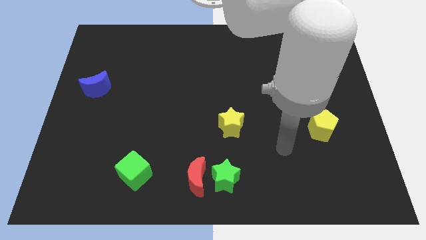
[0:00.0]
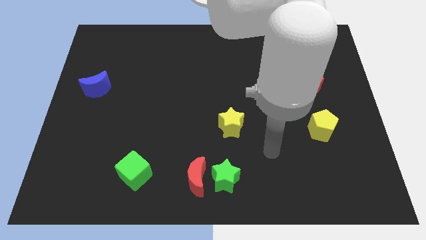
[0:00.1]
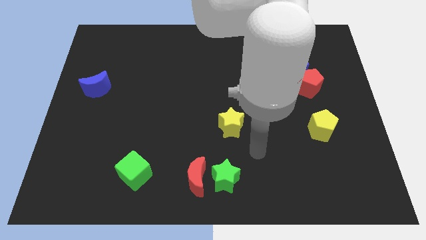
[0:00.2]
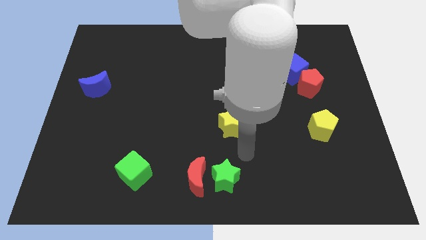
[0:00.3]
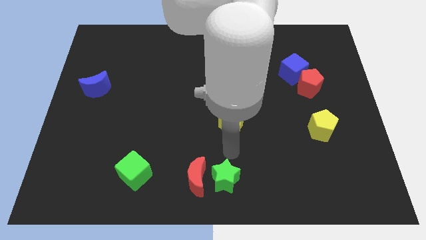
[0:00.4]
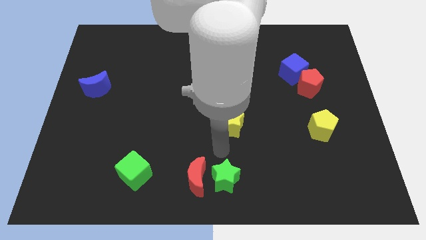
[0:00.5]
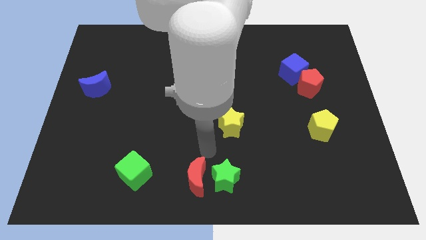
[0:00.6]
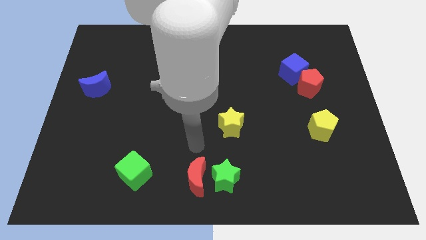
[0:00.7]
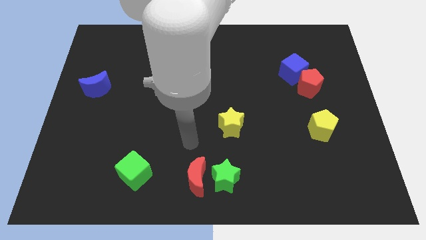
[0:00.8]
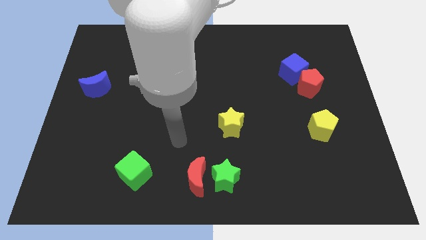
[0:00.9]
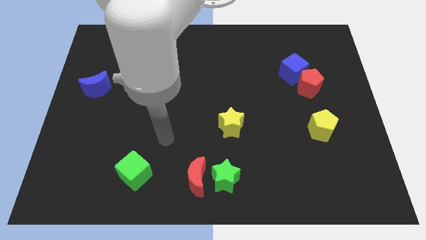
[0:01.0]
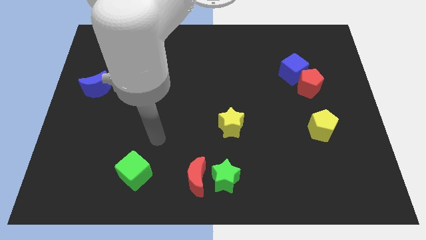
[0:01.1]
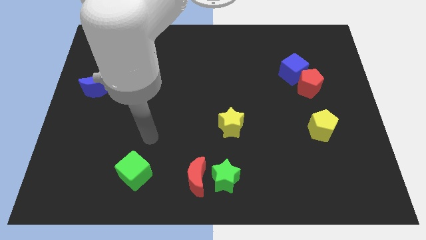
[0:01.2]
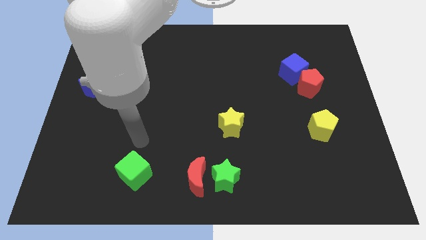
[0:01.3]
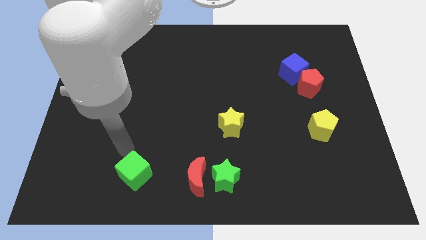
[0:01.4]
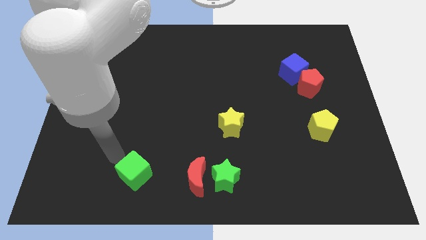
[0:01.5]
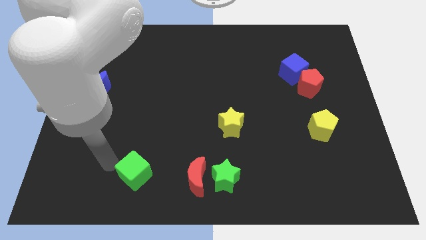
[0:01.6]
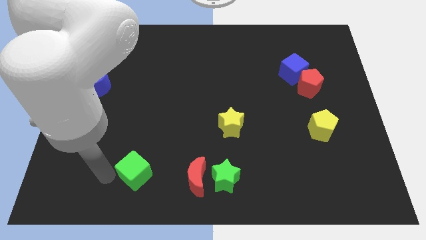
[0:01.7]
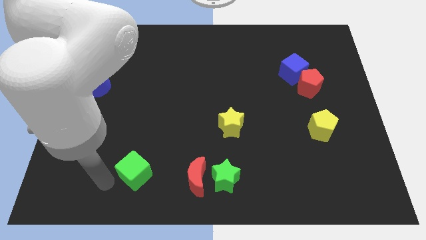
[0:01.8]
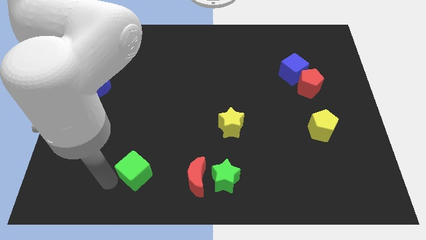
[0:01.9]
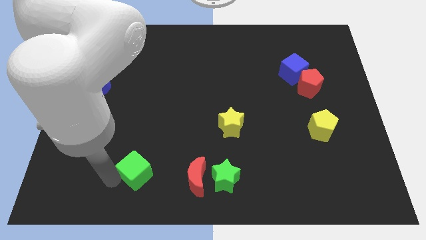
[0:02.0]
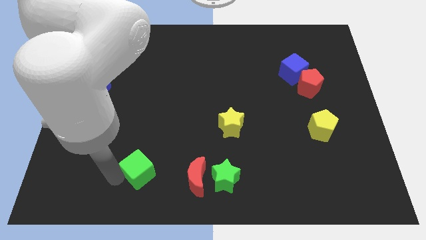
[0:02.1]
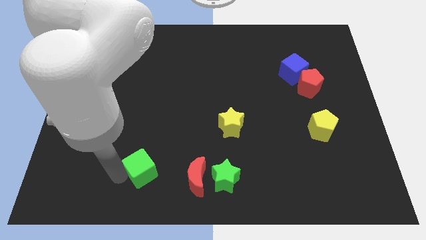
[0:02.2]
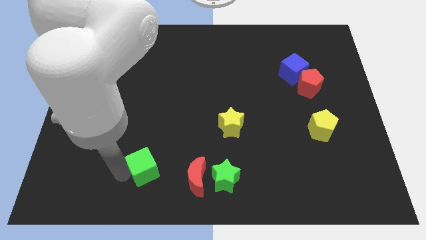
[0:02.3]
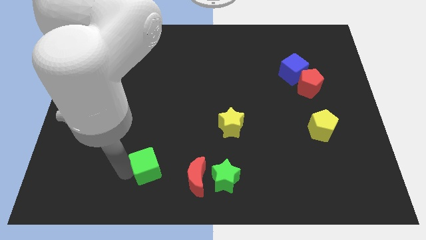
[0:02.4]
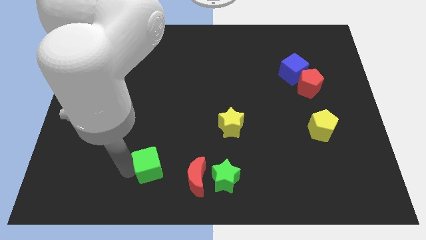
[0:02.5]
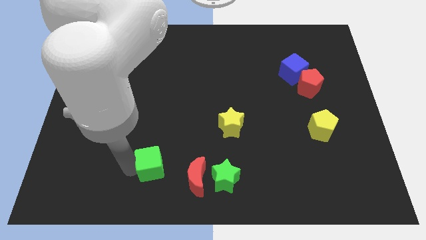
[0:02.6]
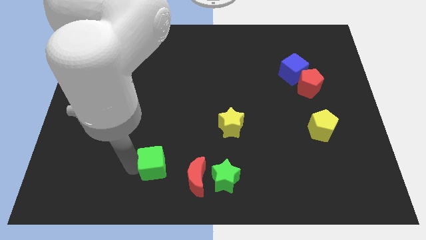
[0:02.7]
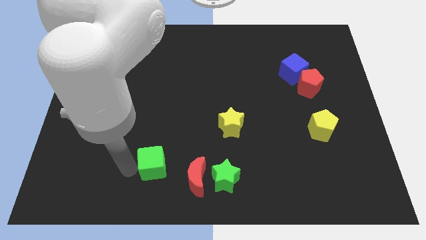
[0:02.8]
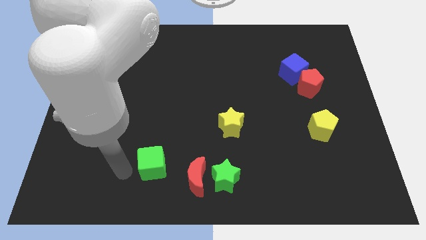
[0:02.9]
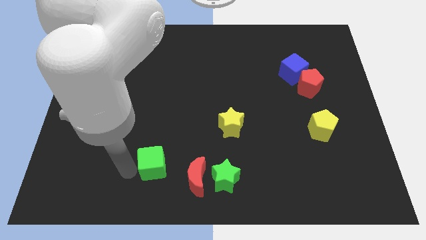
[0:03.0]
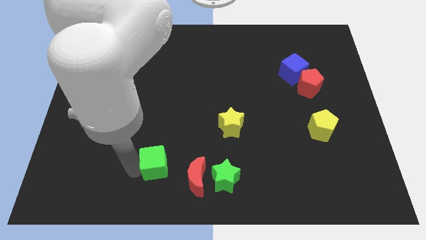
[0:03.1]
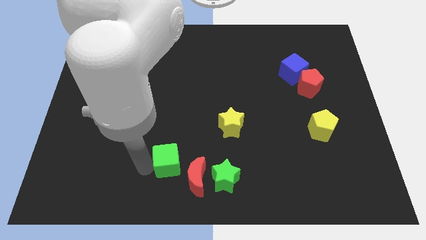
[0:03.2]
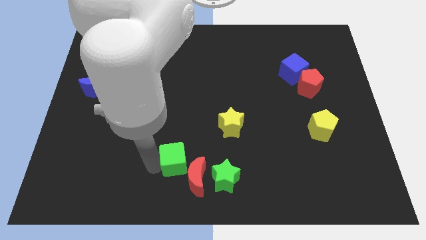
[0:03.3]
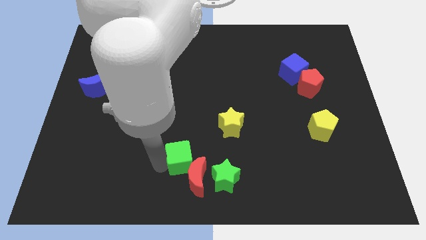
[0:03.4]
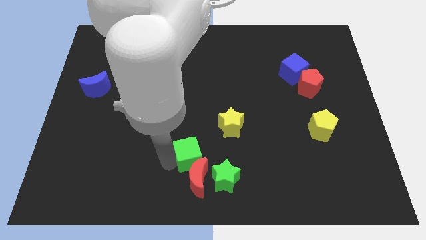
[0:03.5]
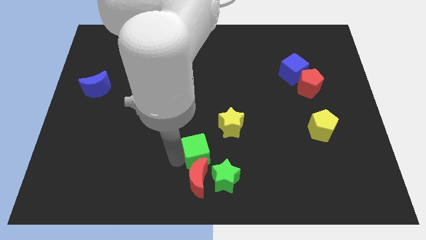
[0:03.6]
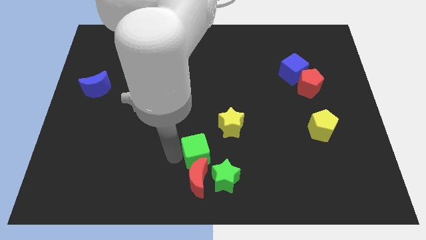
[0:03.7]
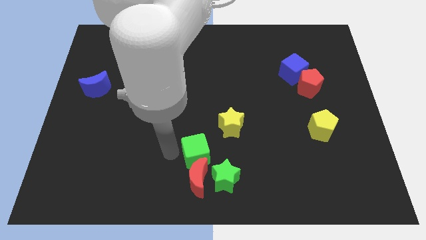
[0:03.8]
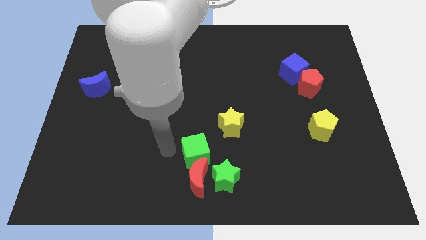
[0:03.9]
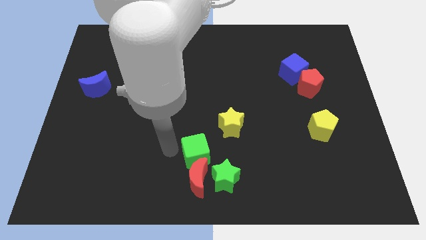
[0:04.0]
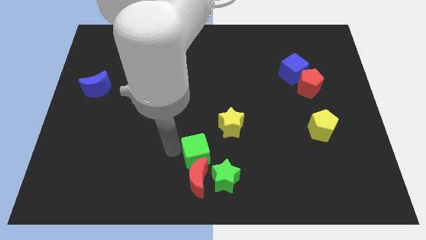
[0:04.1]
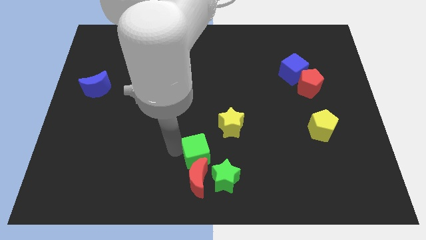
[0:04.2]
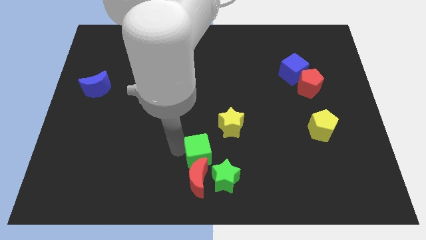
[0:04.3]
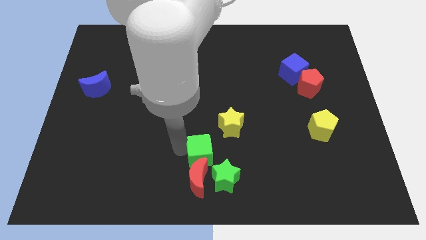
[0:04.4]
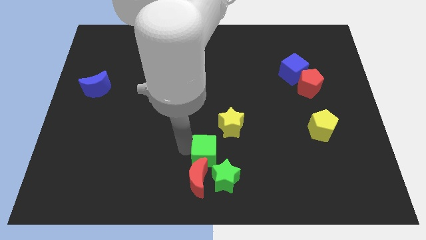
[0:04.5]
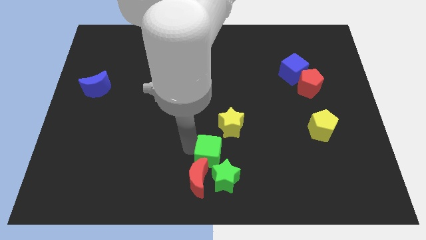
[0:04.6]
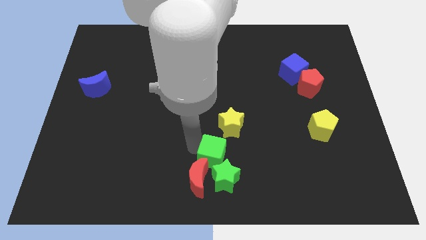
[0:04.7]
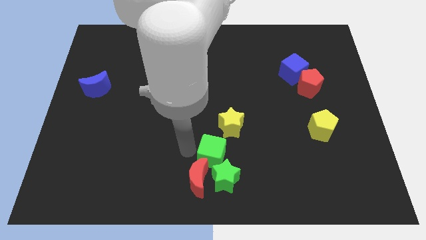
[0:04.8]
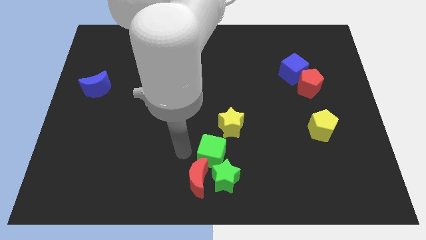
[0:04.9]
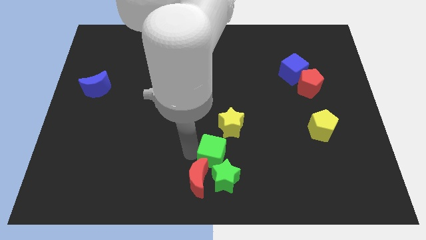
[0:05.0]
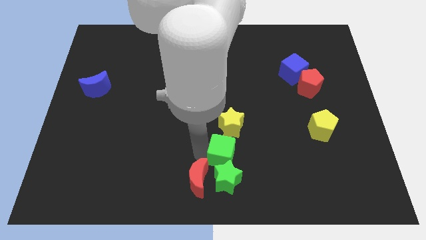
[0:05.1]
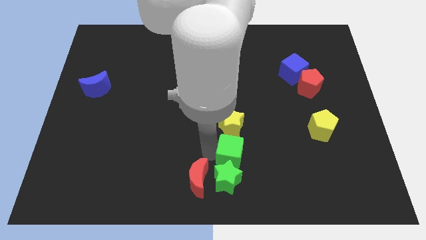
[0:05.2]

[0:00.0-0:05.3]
push the green cube diagonally up and to the right of the green star
